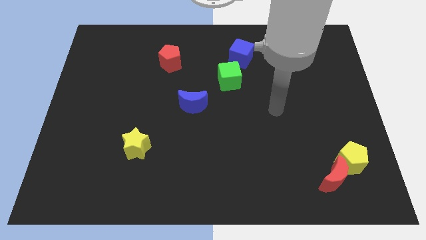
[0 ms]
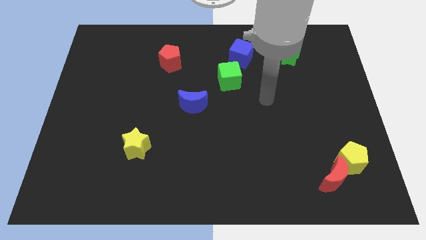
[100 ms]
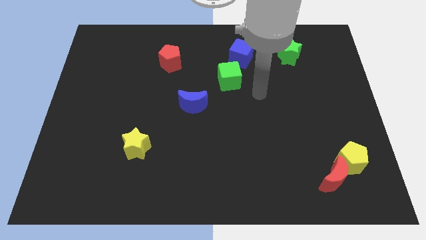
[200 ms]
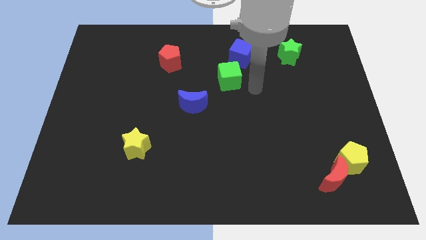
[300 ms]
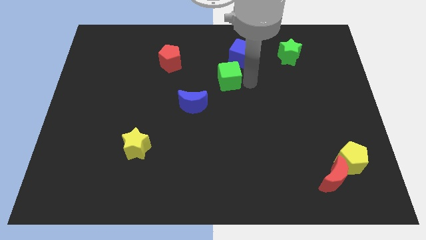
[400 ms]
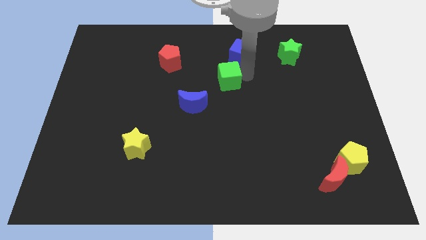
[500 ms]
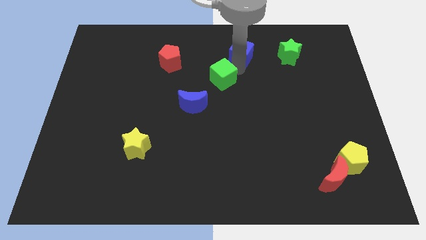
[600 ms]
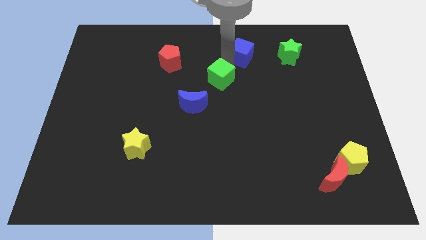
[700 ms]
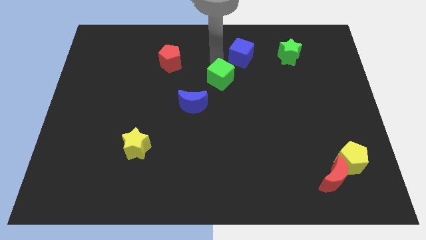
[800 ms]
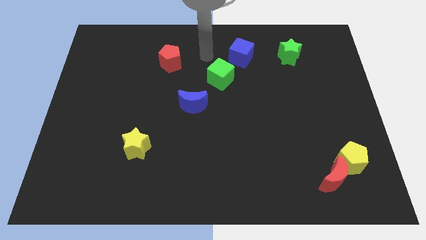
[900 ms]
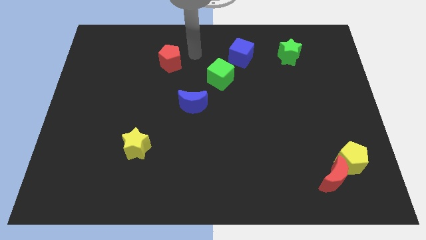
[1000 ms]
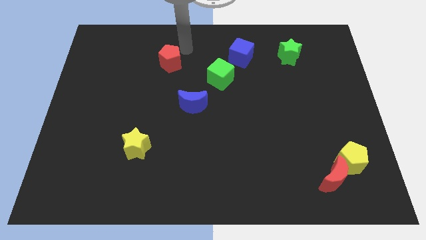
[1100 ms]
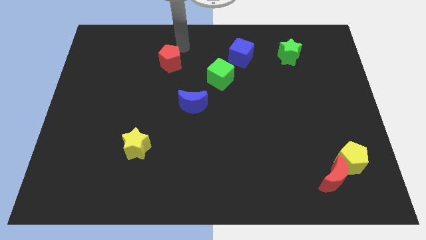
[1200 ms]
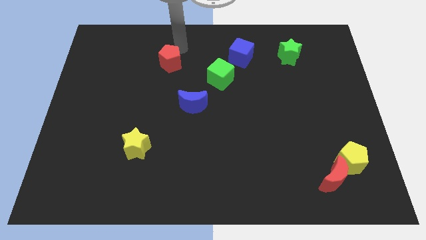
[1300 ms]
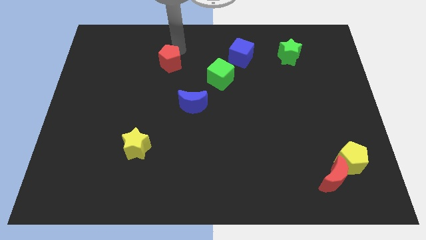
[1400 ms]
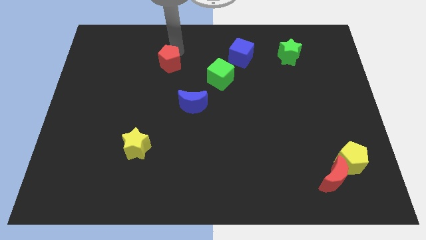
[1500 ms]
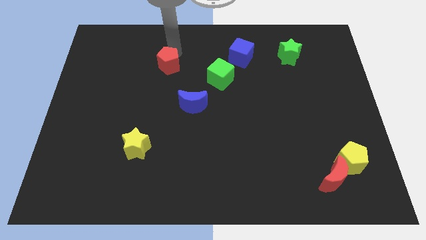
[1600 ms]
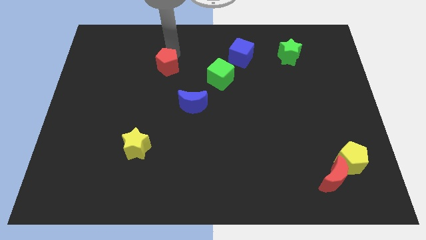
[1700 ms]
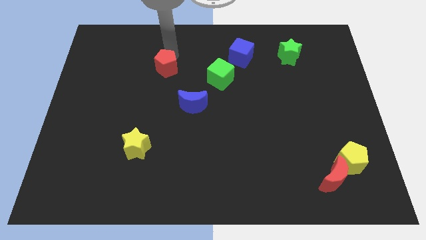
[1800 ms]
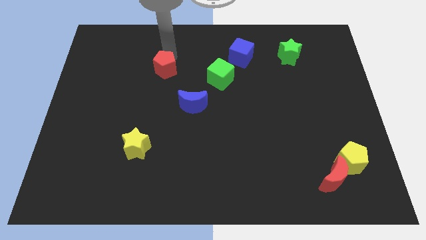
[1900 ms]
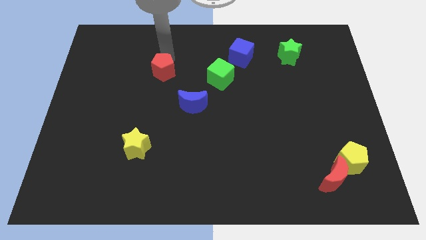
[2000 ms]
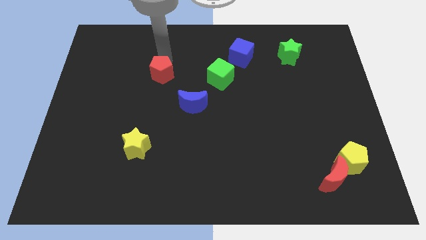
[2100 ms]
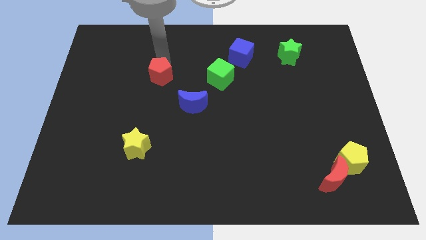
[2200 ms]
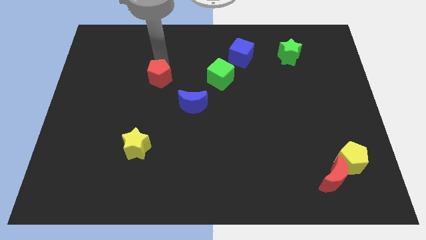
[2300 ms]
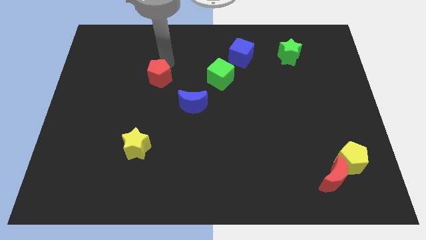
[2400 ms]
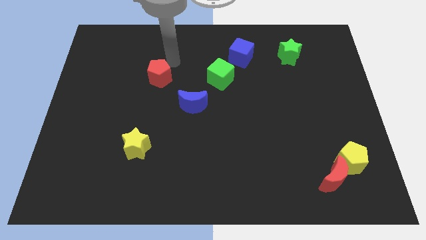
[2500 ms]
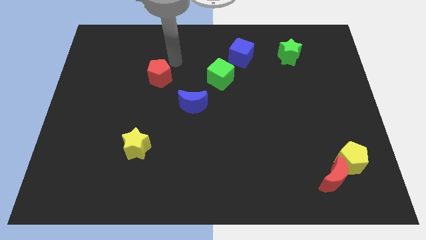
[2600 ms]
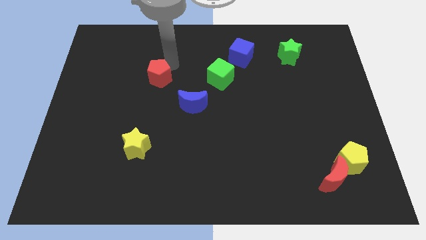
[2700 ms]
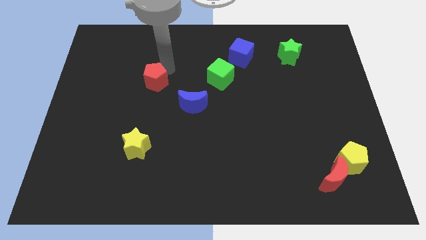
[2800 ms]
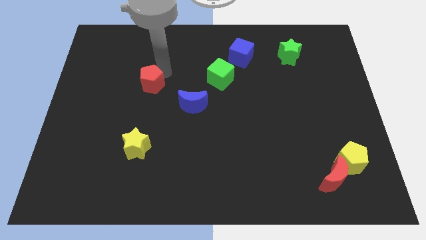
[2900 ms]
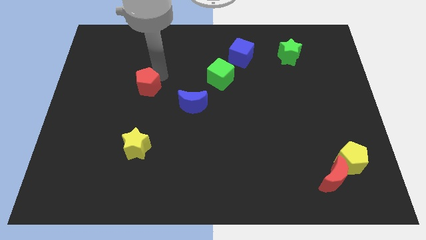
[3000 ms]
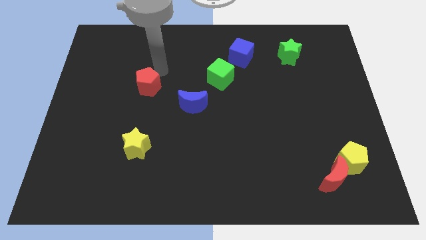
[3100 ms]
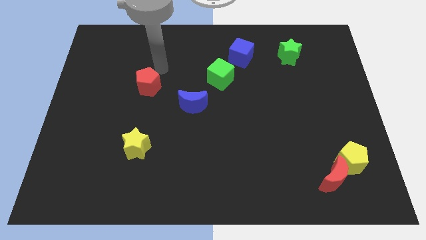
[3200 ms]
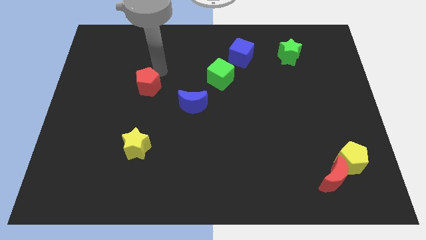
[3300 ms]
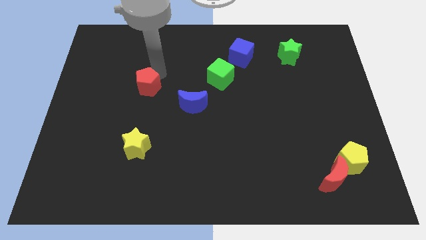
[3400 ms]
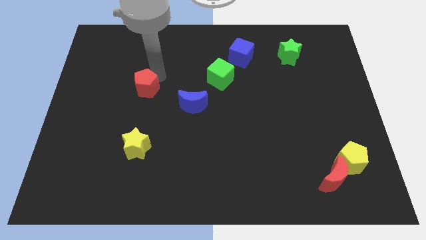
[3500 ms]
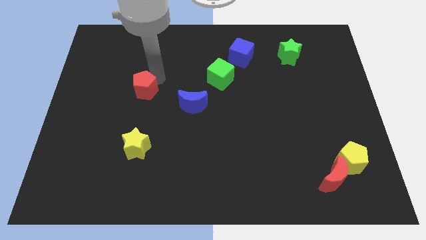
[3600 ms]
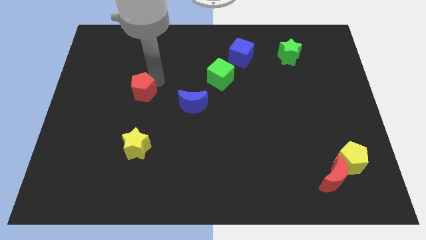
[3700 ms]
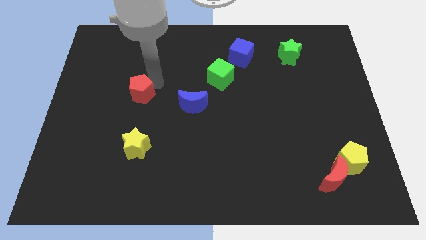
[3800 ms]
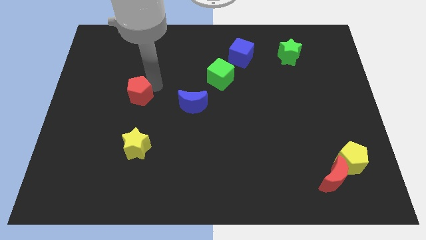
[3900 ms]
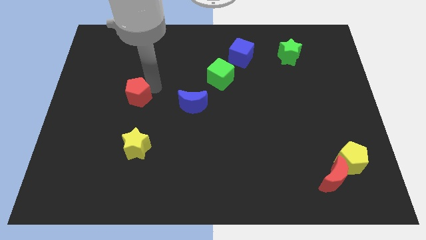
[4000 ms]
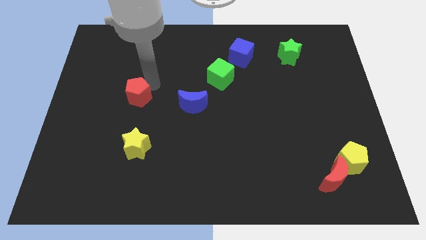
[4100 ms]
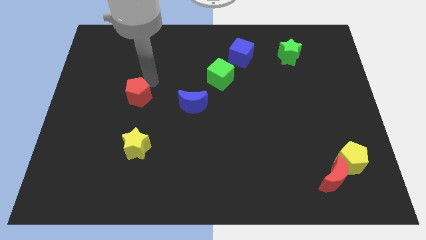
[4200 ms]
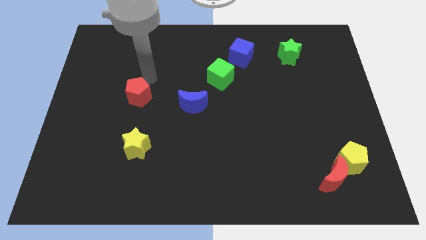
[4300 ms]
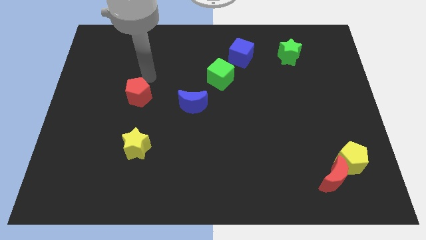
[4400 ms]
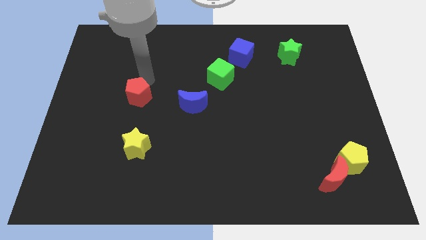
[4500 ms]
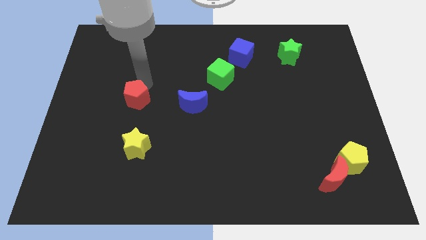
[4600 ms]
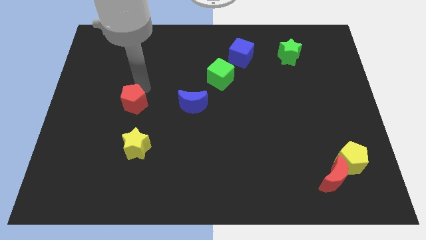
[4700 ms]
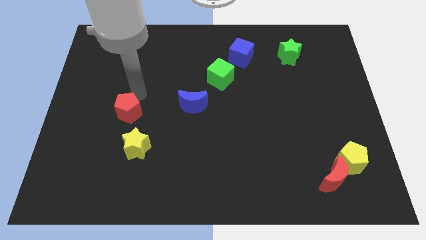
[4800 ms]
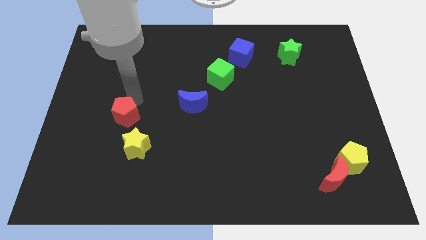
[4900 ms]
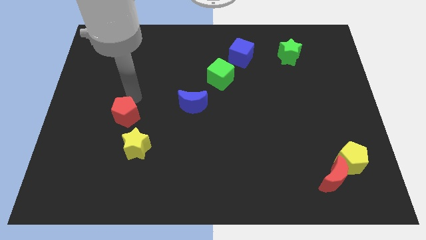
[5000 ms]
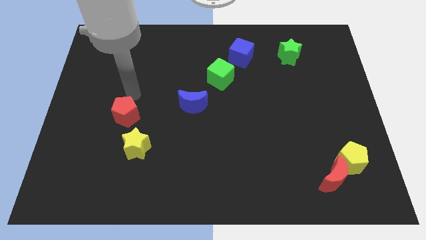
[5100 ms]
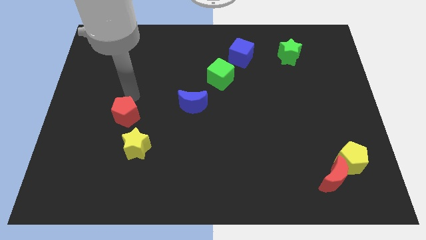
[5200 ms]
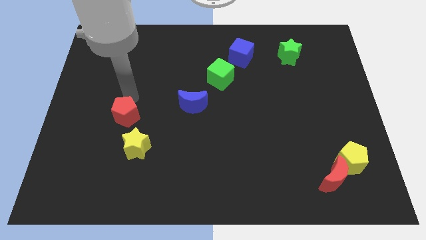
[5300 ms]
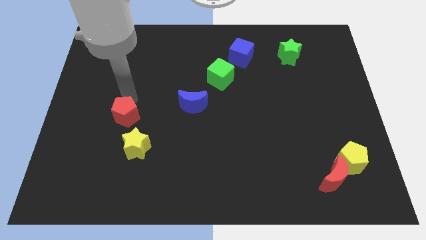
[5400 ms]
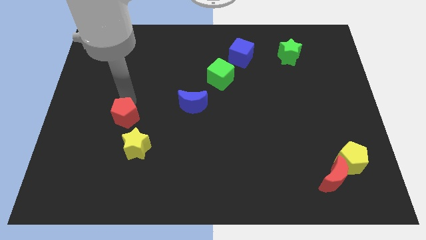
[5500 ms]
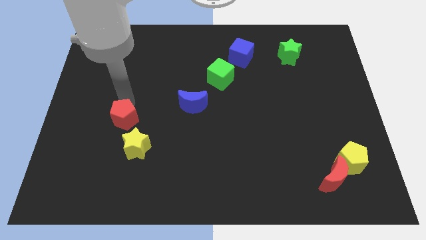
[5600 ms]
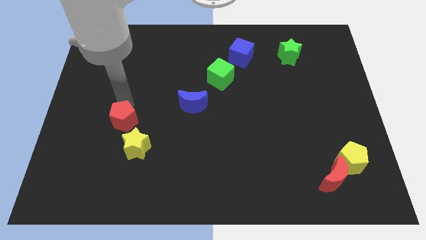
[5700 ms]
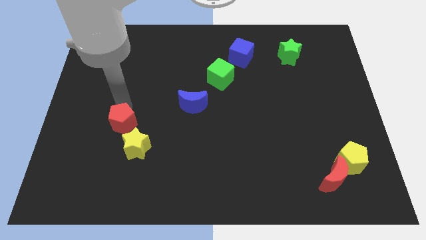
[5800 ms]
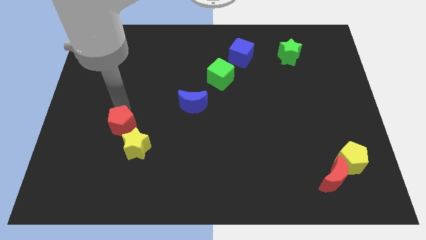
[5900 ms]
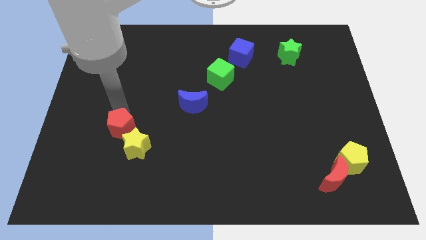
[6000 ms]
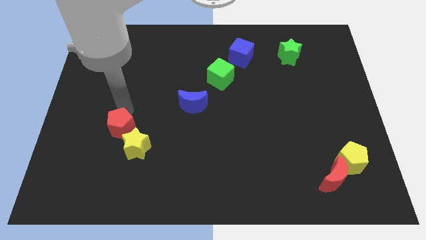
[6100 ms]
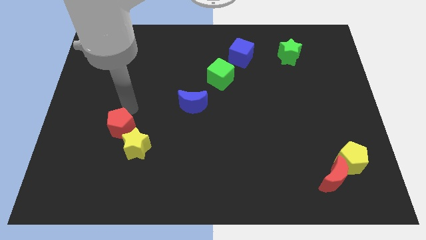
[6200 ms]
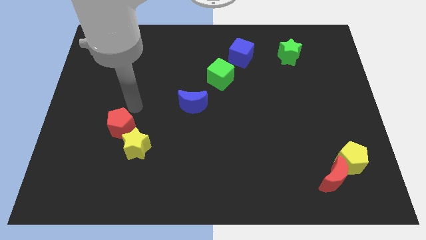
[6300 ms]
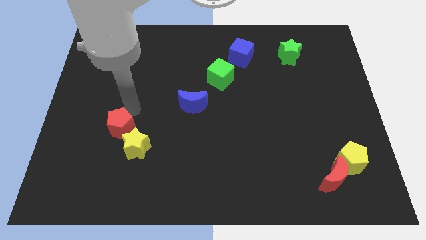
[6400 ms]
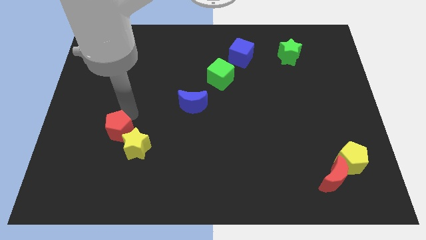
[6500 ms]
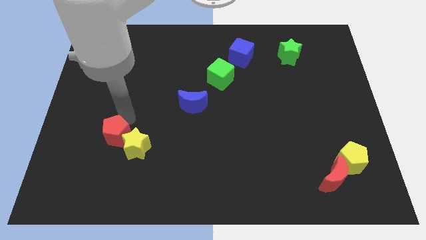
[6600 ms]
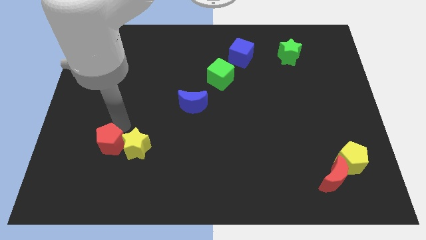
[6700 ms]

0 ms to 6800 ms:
slide the red pentagon diagonally down and to the left of the yellow star
